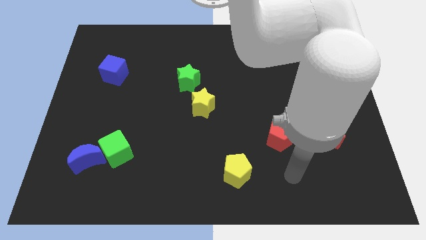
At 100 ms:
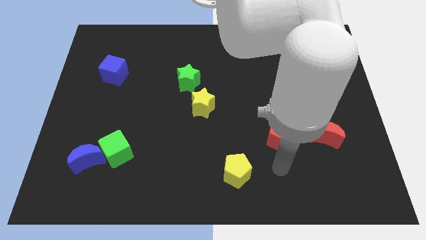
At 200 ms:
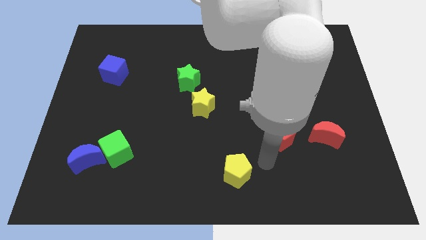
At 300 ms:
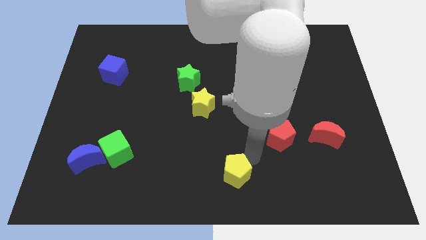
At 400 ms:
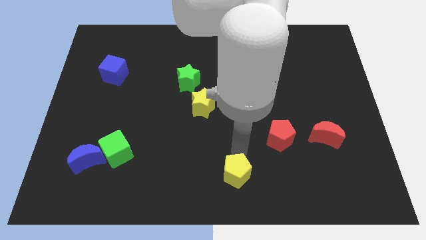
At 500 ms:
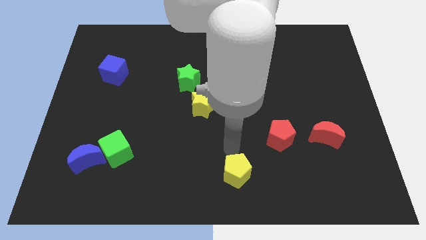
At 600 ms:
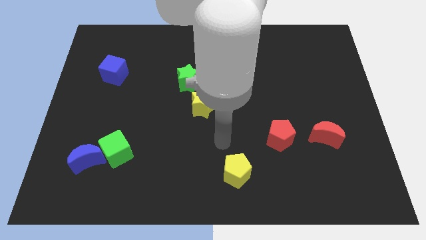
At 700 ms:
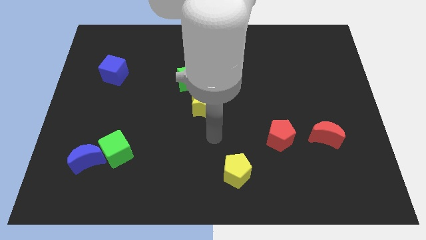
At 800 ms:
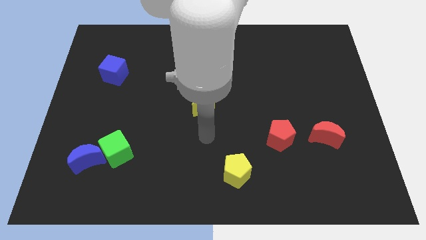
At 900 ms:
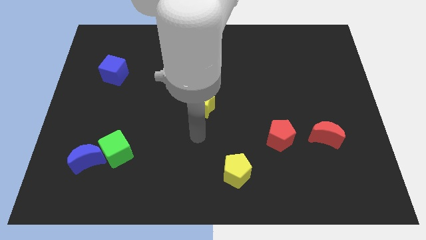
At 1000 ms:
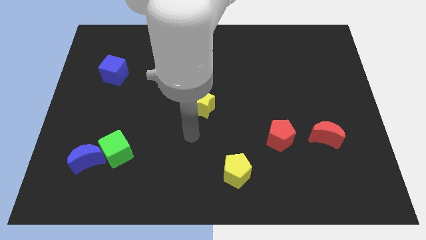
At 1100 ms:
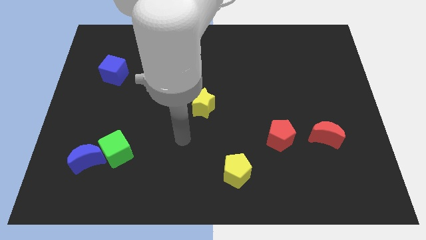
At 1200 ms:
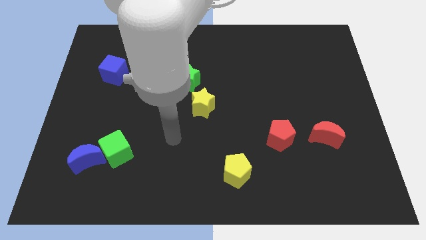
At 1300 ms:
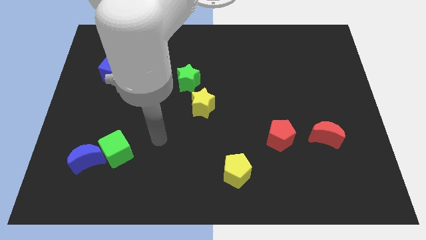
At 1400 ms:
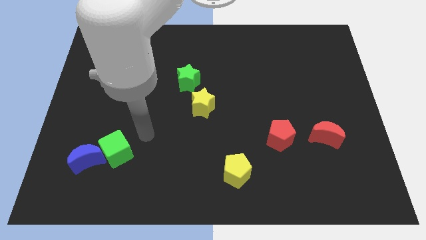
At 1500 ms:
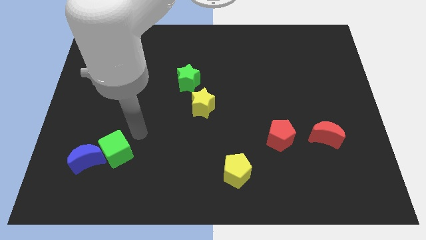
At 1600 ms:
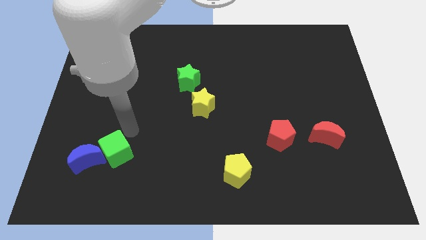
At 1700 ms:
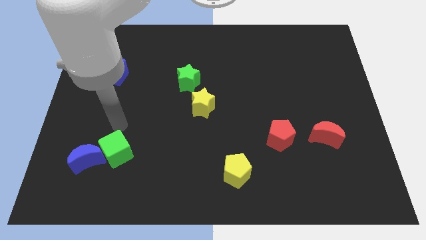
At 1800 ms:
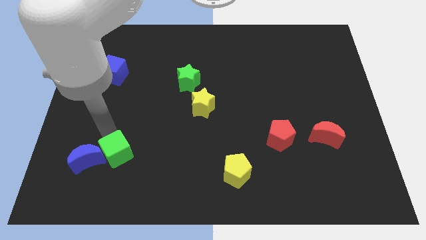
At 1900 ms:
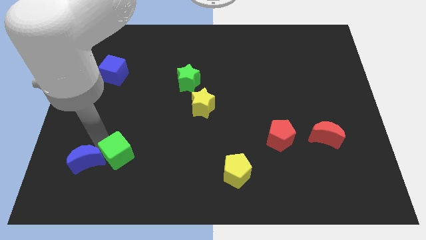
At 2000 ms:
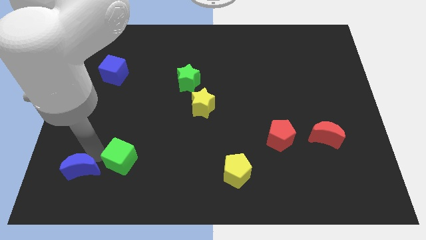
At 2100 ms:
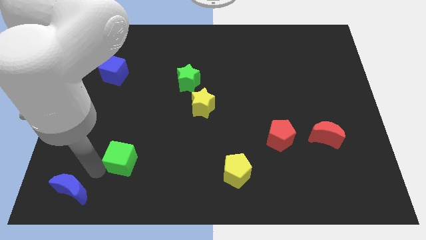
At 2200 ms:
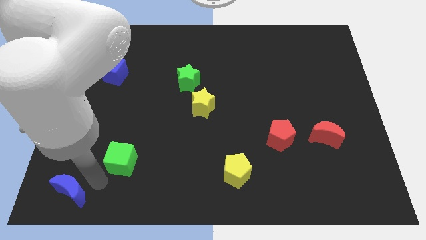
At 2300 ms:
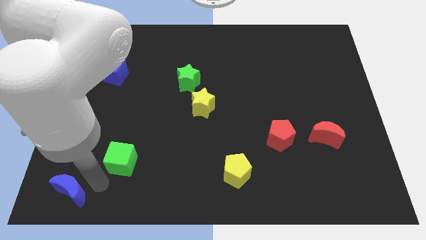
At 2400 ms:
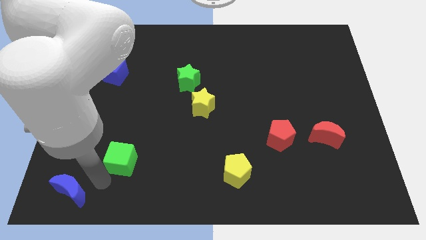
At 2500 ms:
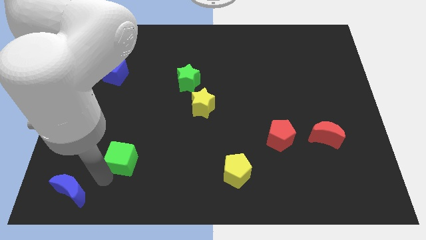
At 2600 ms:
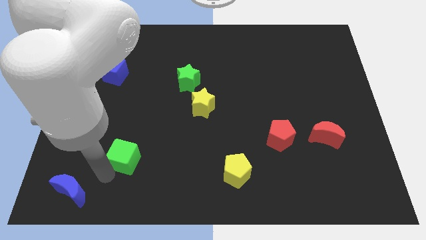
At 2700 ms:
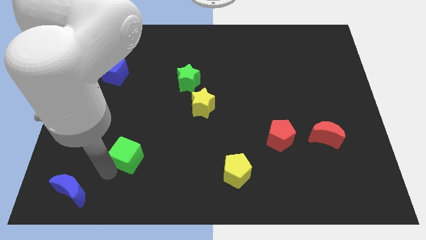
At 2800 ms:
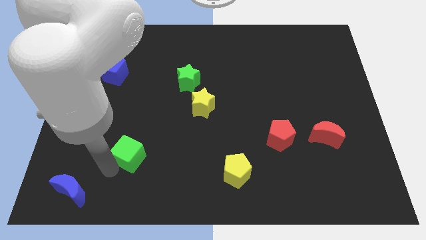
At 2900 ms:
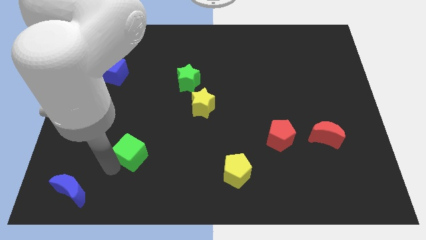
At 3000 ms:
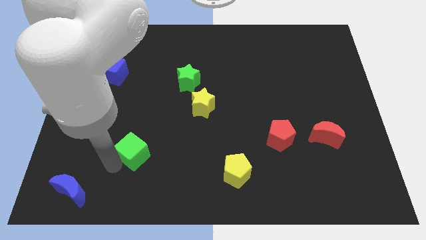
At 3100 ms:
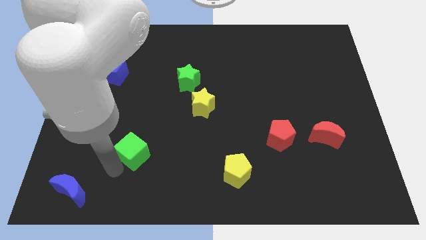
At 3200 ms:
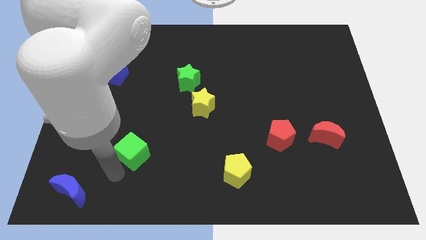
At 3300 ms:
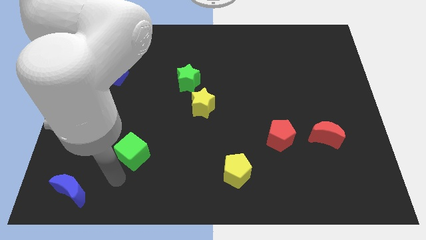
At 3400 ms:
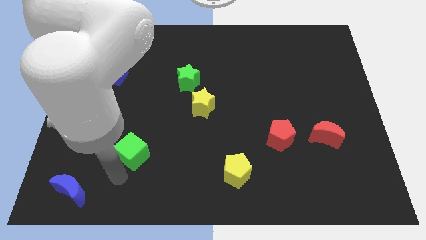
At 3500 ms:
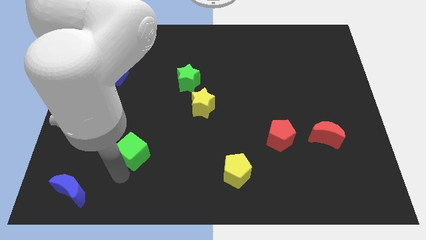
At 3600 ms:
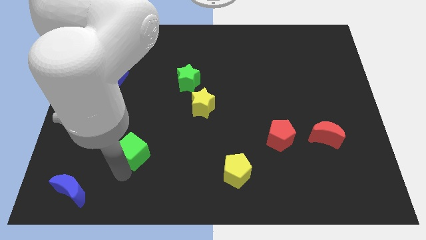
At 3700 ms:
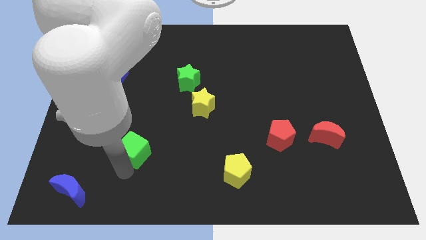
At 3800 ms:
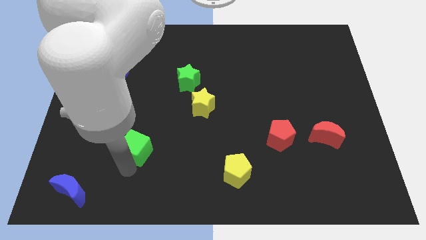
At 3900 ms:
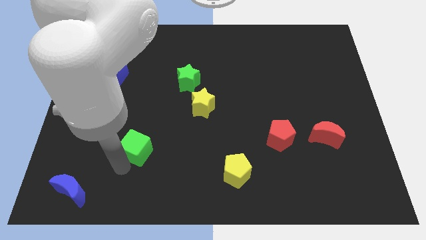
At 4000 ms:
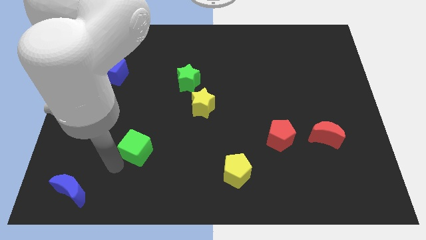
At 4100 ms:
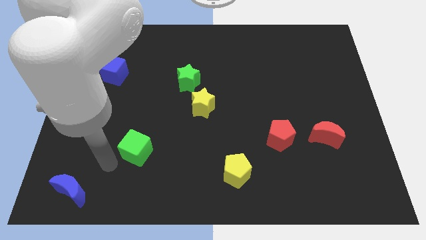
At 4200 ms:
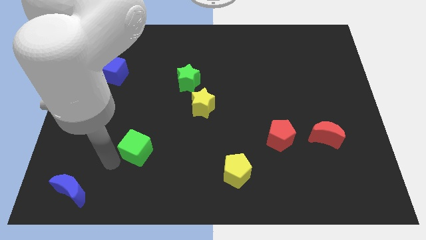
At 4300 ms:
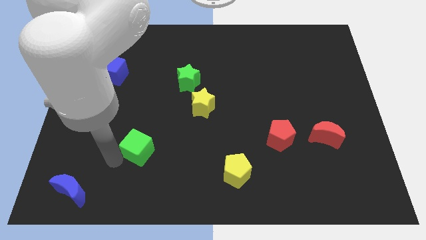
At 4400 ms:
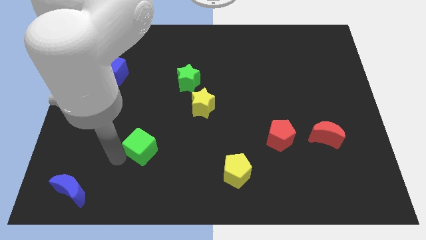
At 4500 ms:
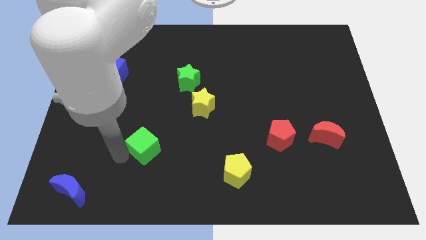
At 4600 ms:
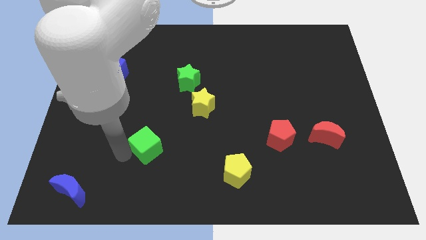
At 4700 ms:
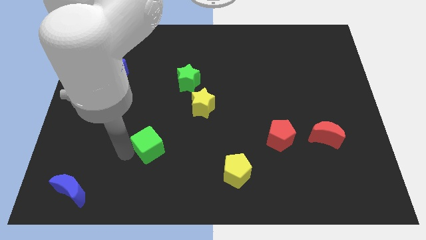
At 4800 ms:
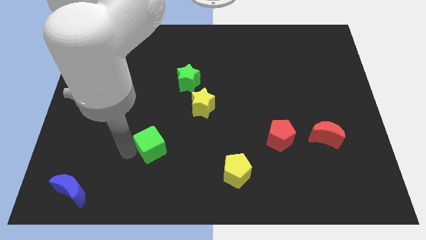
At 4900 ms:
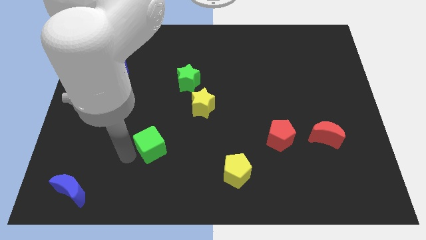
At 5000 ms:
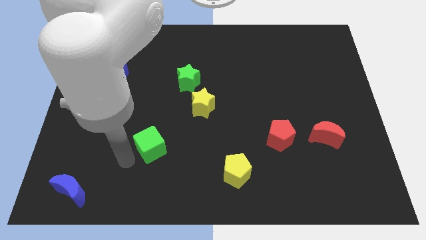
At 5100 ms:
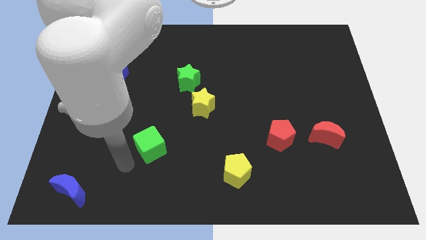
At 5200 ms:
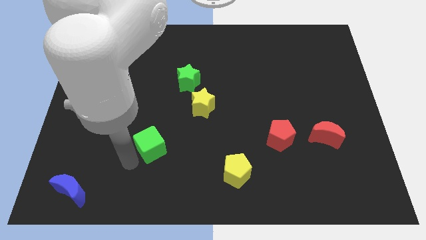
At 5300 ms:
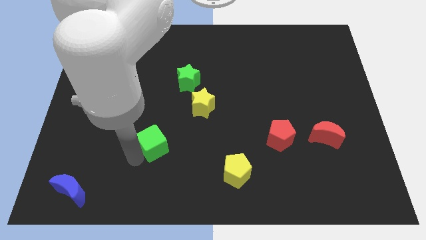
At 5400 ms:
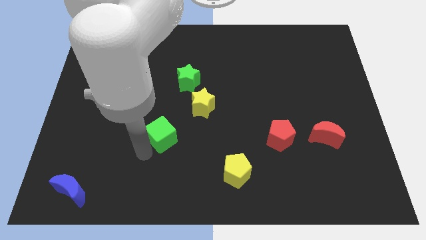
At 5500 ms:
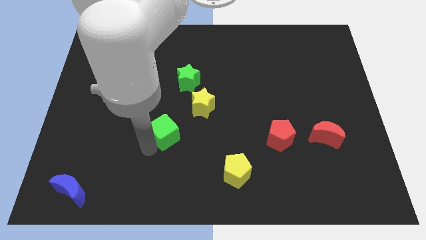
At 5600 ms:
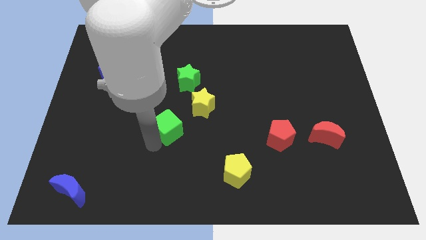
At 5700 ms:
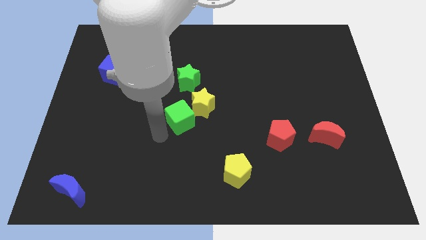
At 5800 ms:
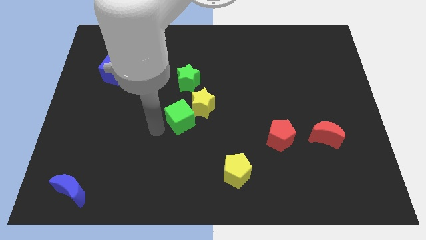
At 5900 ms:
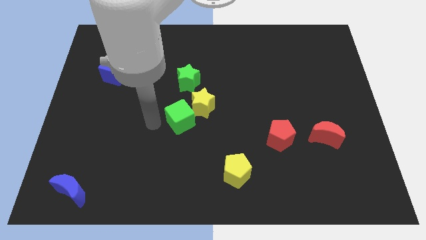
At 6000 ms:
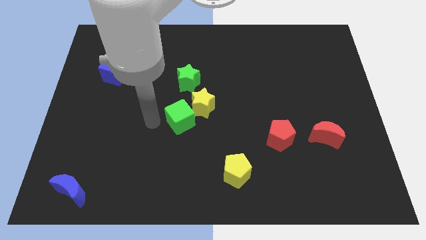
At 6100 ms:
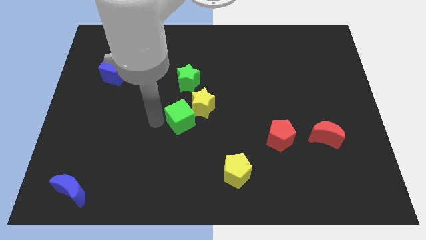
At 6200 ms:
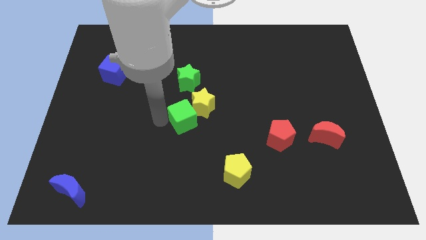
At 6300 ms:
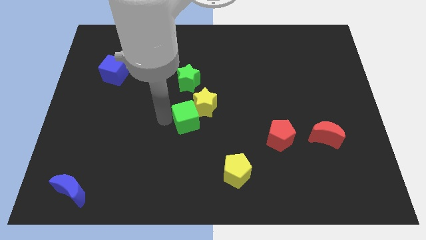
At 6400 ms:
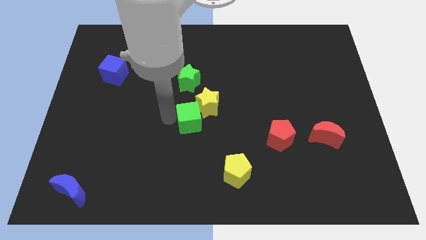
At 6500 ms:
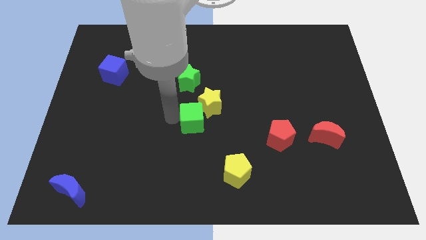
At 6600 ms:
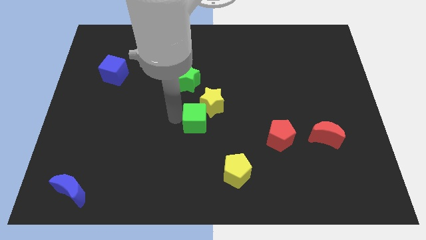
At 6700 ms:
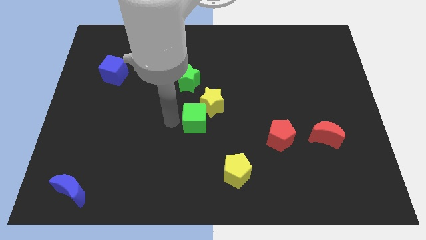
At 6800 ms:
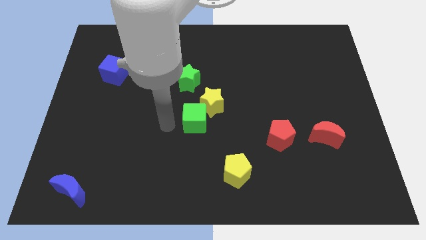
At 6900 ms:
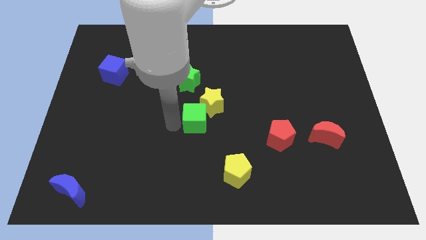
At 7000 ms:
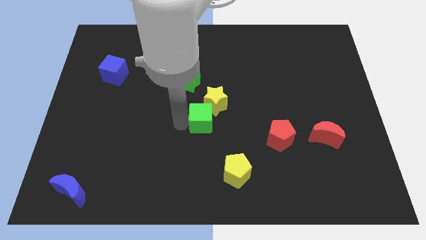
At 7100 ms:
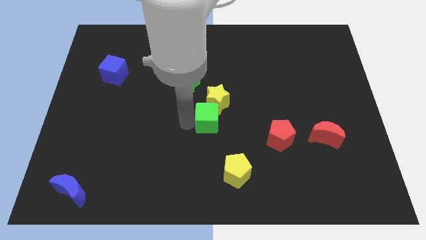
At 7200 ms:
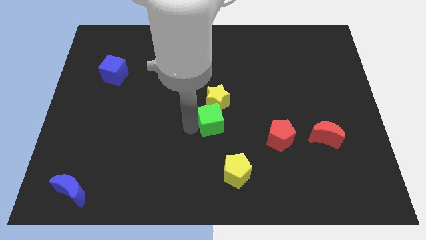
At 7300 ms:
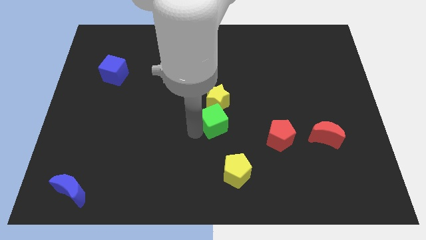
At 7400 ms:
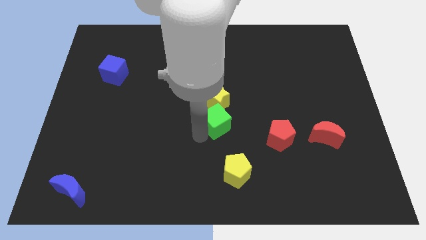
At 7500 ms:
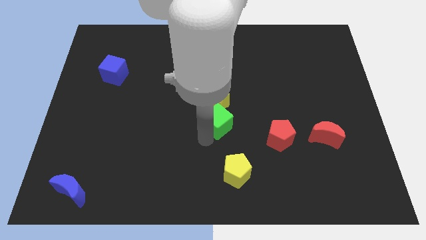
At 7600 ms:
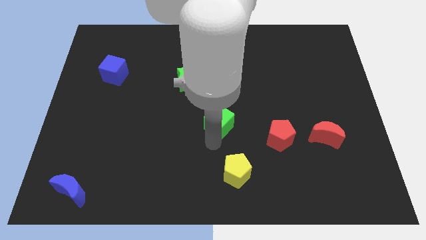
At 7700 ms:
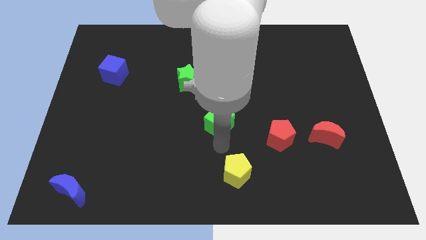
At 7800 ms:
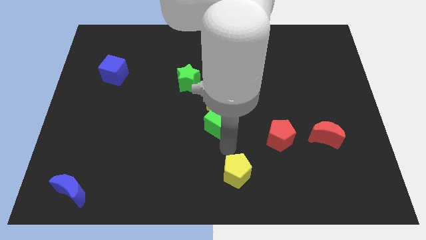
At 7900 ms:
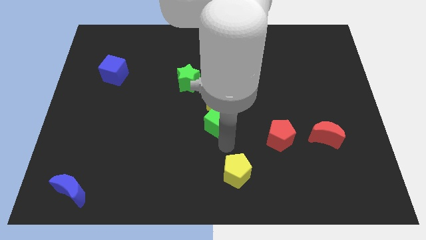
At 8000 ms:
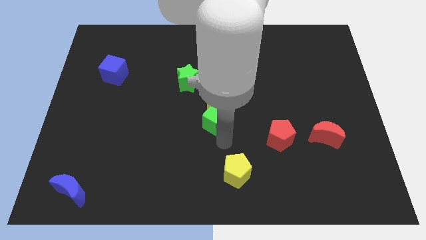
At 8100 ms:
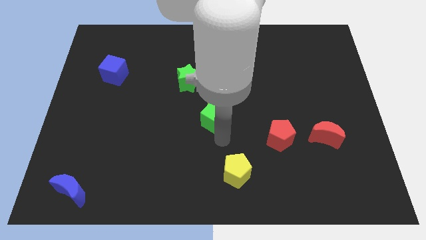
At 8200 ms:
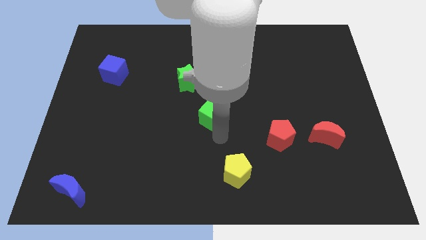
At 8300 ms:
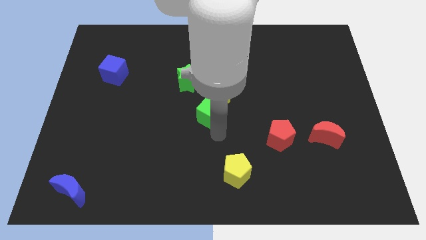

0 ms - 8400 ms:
push the green cube to the bottom right of the green star
